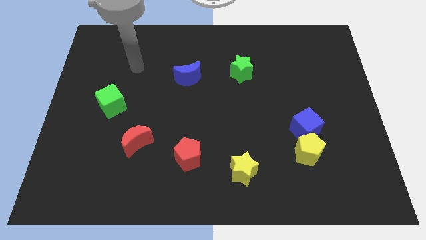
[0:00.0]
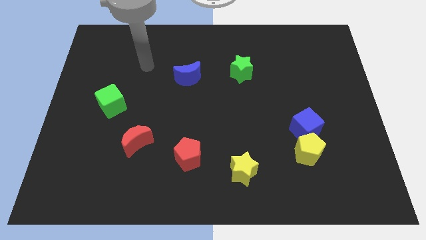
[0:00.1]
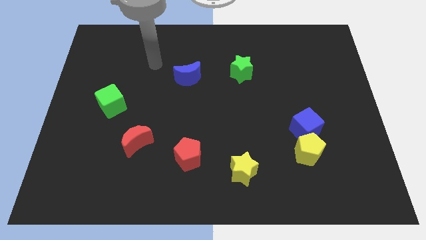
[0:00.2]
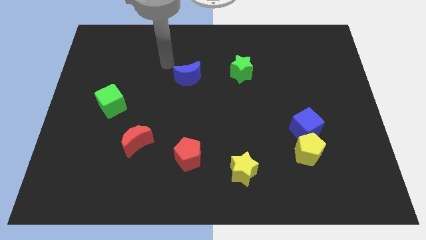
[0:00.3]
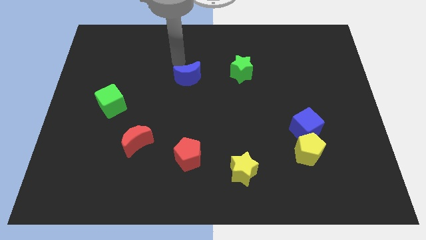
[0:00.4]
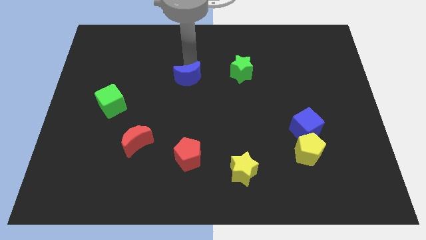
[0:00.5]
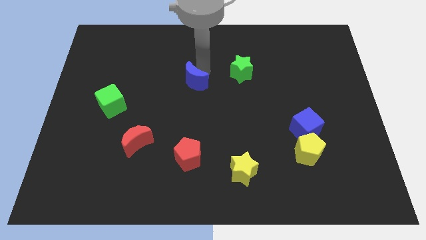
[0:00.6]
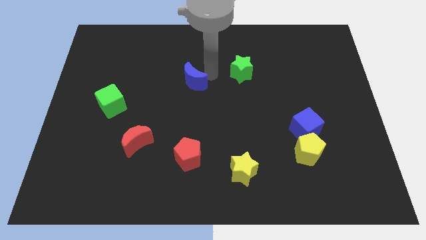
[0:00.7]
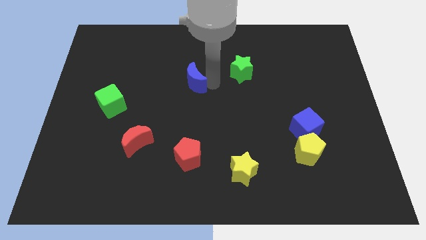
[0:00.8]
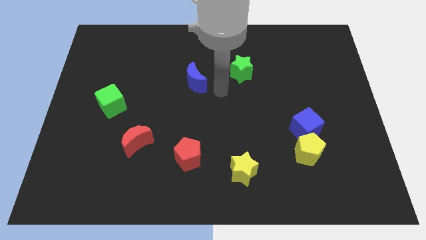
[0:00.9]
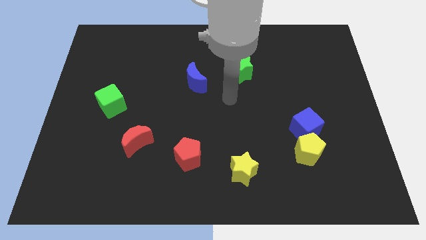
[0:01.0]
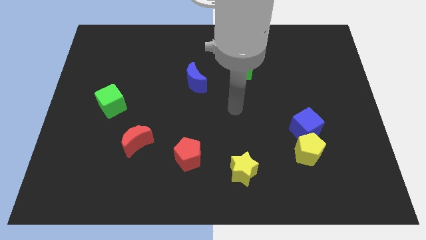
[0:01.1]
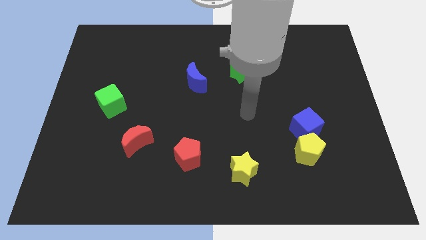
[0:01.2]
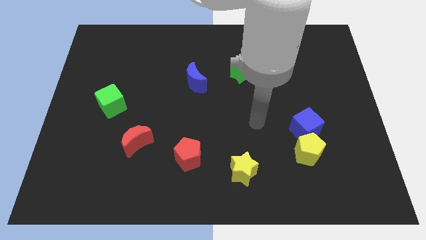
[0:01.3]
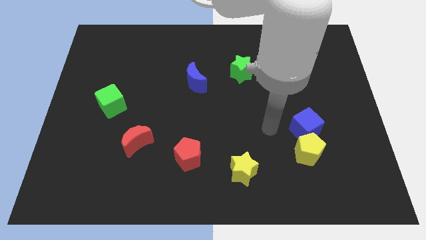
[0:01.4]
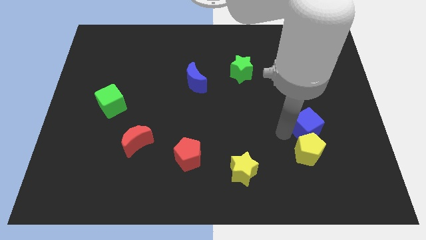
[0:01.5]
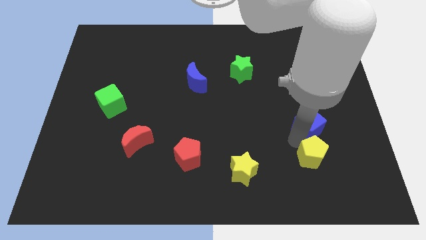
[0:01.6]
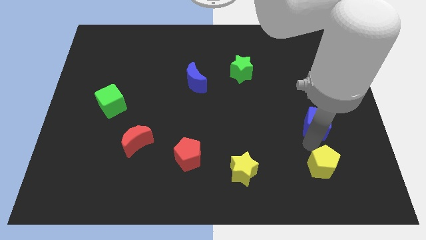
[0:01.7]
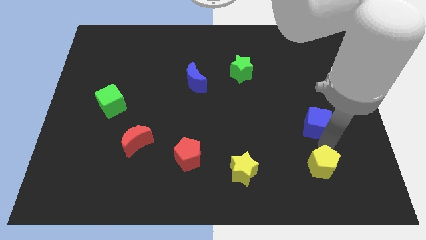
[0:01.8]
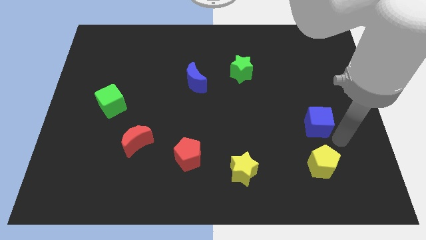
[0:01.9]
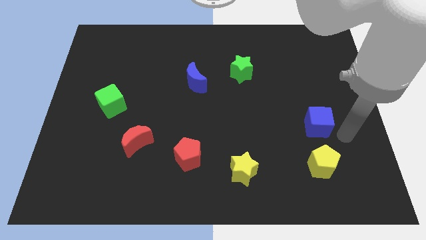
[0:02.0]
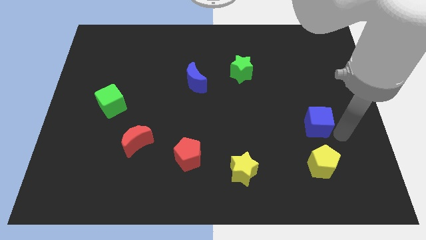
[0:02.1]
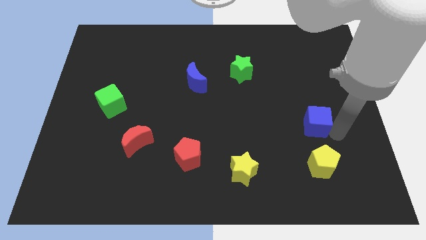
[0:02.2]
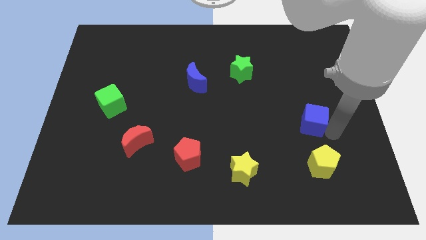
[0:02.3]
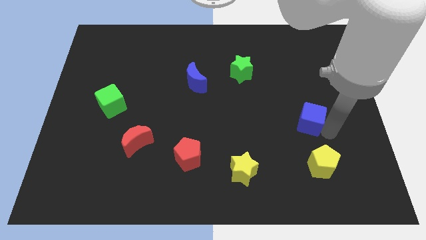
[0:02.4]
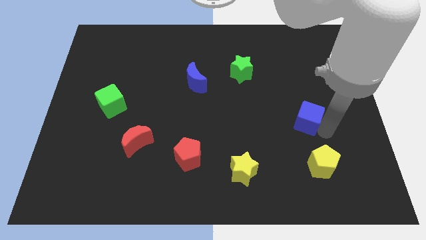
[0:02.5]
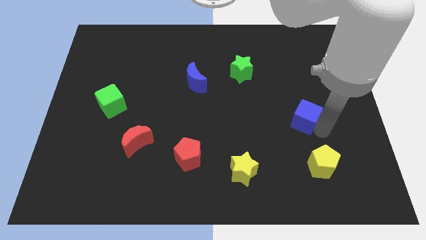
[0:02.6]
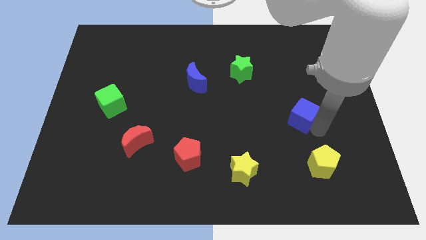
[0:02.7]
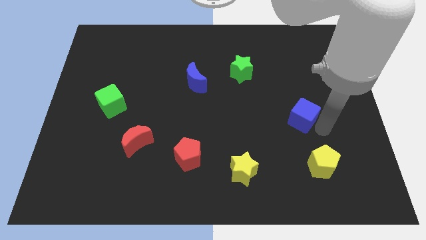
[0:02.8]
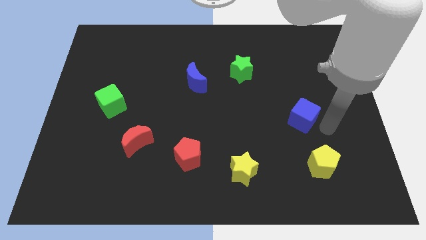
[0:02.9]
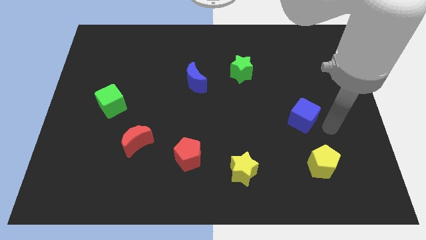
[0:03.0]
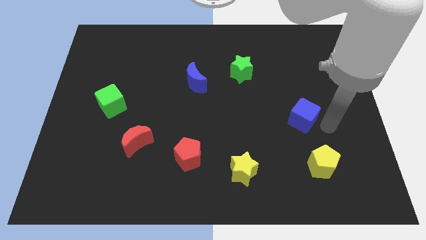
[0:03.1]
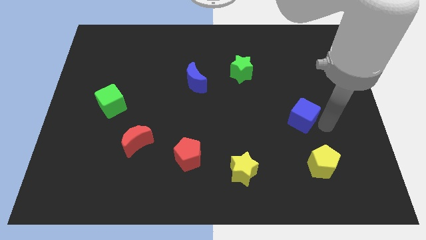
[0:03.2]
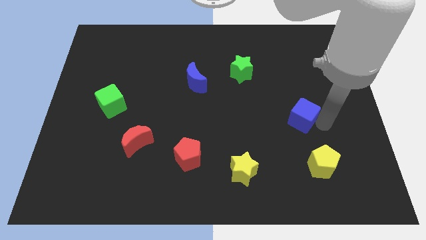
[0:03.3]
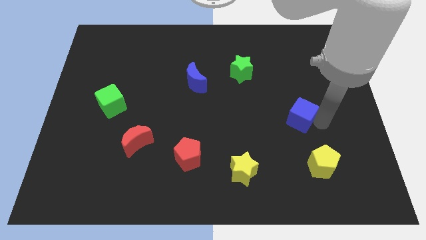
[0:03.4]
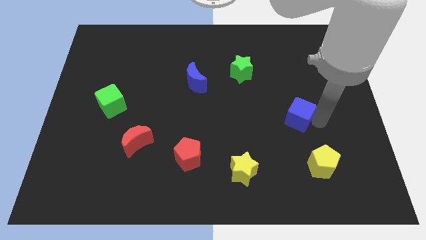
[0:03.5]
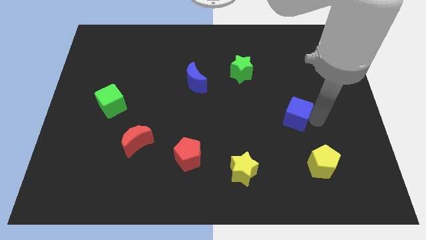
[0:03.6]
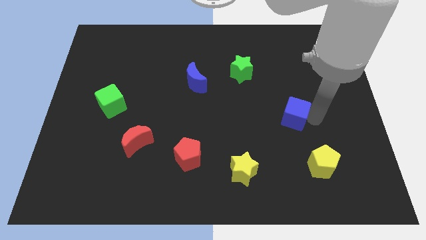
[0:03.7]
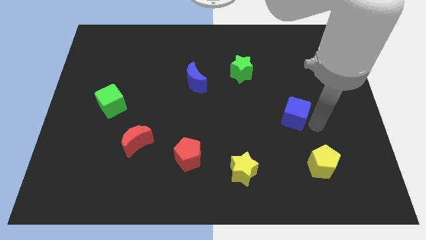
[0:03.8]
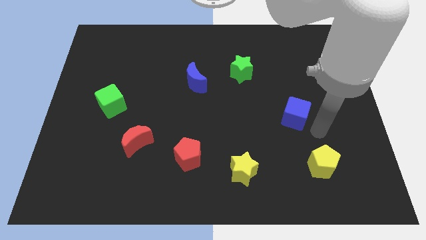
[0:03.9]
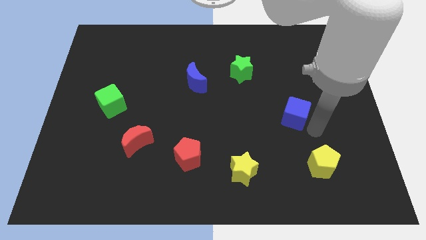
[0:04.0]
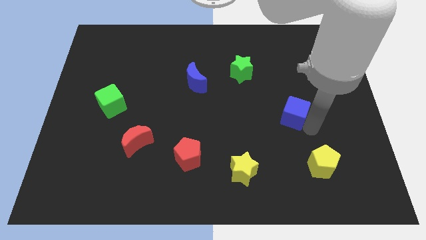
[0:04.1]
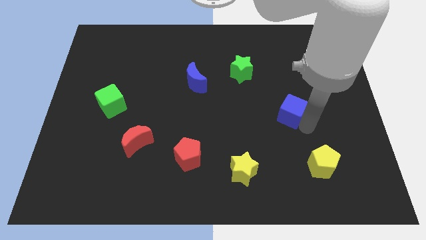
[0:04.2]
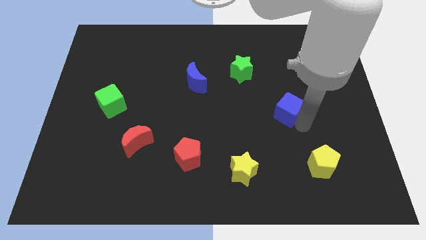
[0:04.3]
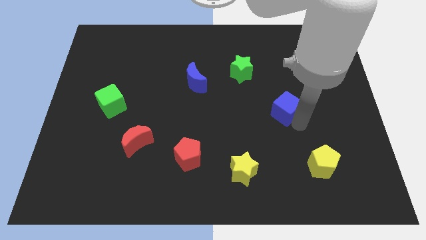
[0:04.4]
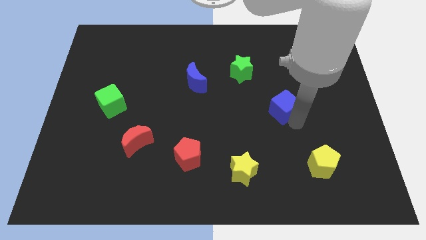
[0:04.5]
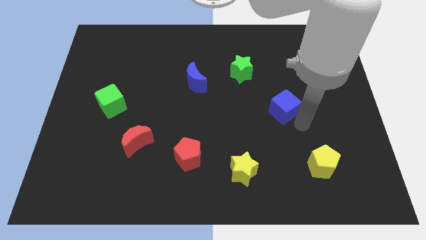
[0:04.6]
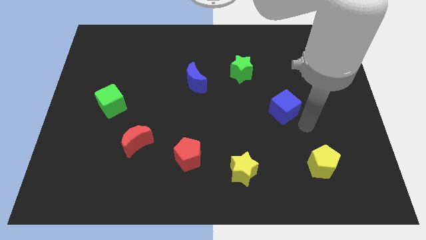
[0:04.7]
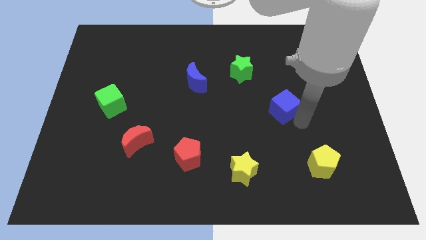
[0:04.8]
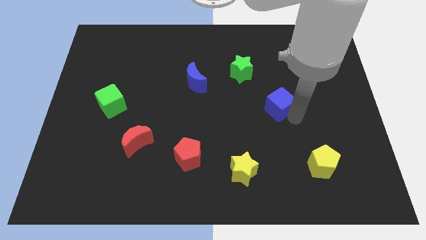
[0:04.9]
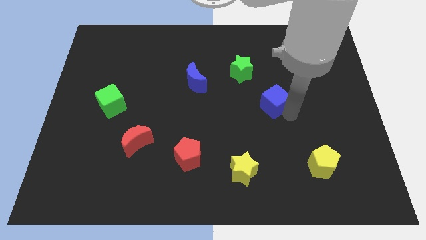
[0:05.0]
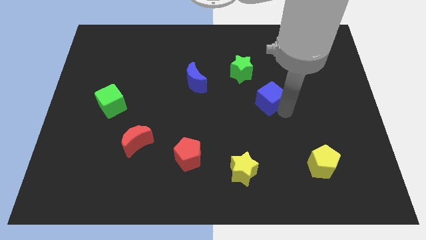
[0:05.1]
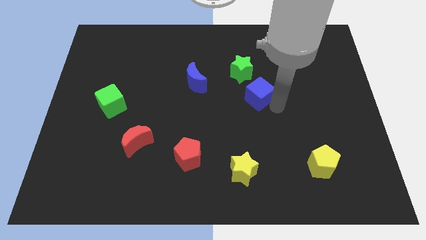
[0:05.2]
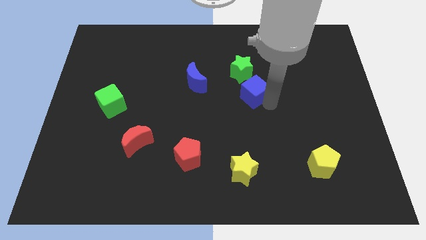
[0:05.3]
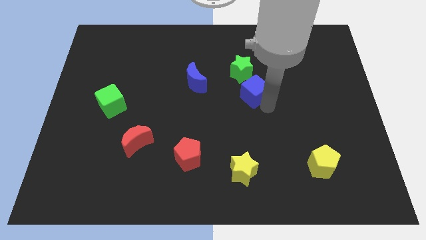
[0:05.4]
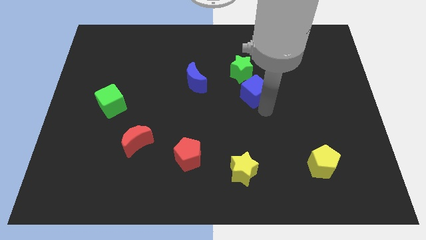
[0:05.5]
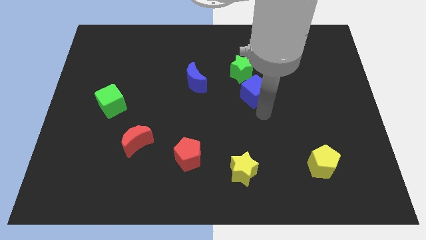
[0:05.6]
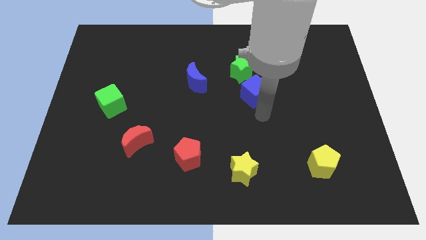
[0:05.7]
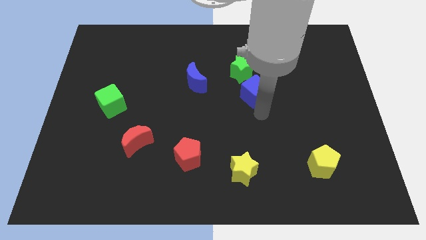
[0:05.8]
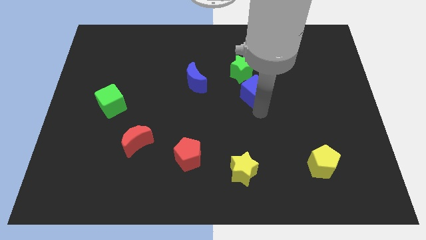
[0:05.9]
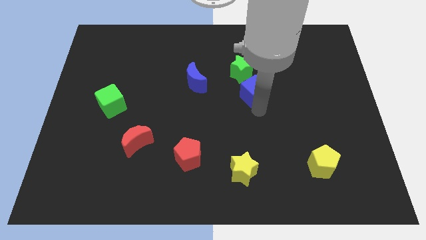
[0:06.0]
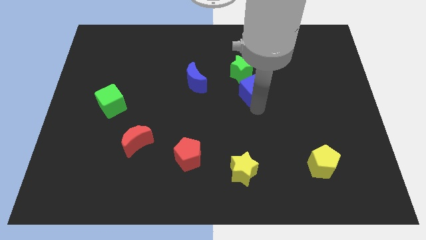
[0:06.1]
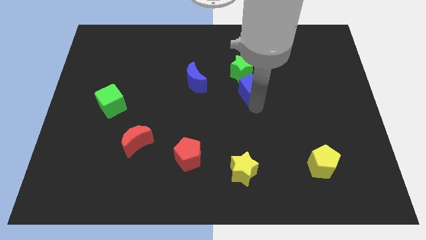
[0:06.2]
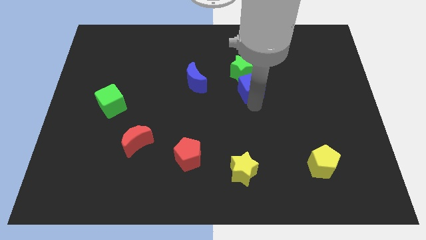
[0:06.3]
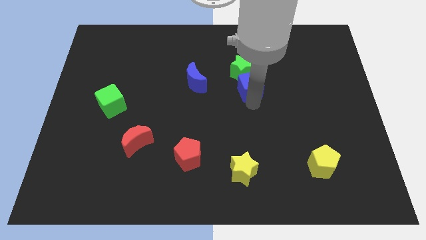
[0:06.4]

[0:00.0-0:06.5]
put the blue cube close to the green star

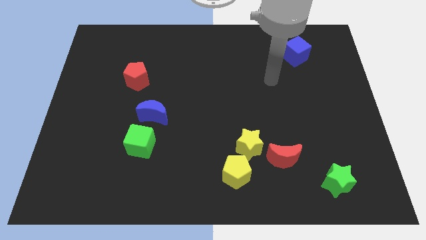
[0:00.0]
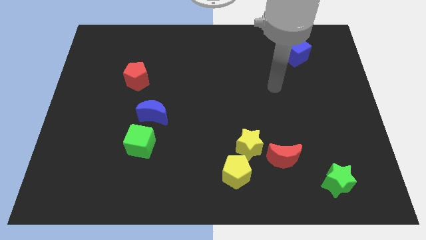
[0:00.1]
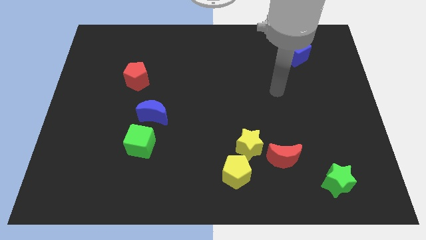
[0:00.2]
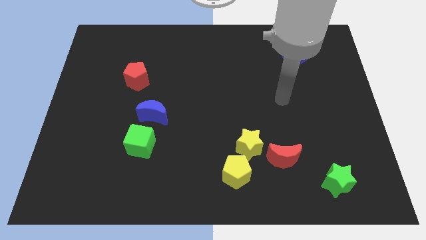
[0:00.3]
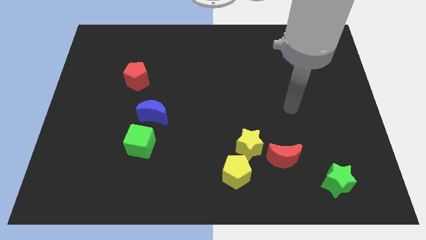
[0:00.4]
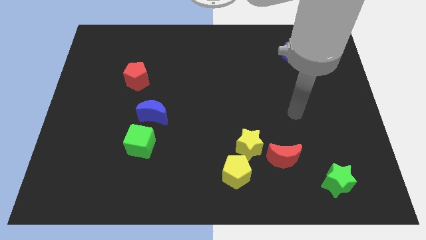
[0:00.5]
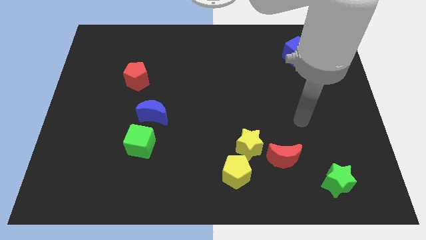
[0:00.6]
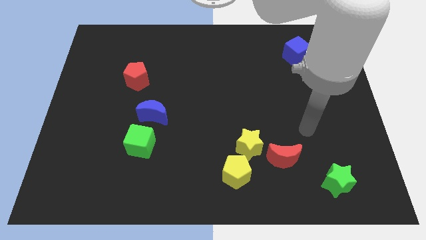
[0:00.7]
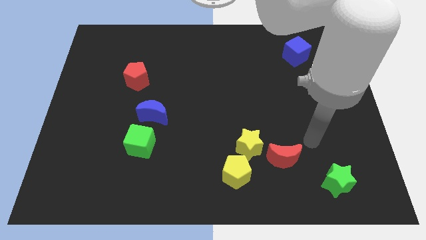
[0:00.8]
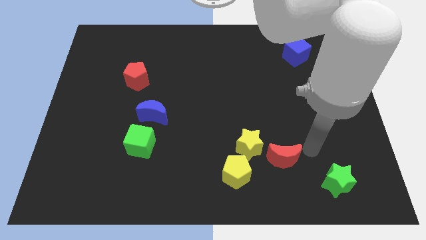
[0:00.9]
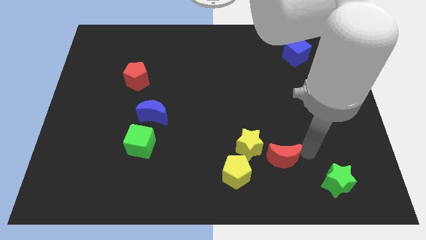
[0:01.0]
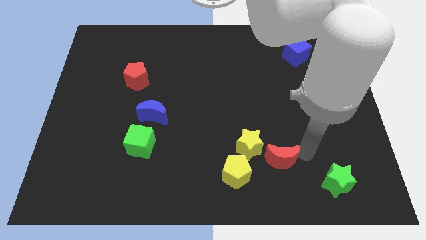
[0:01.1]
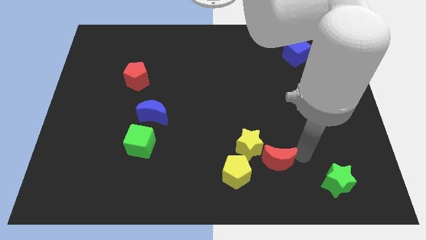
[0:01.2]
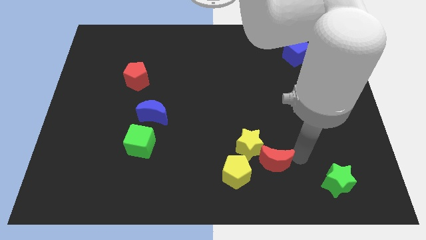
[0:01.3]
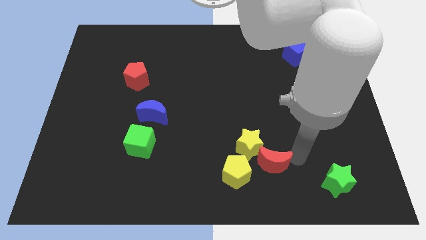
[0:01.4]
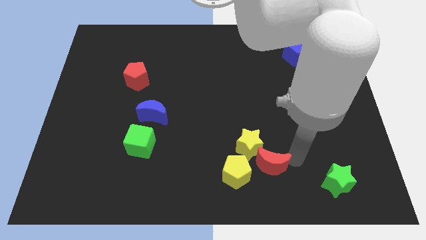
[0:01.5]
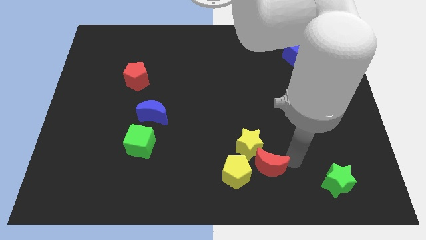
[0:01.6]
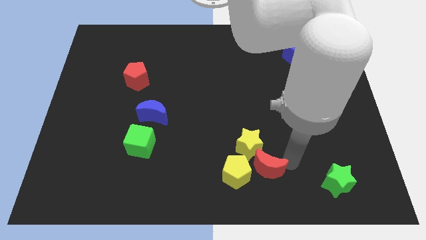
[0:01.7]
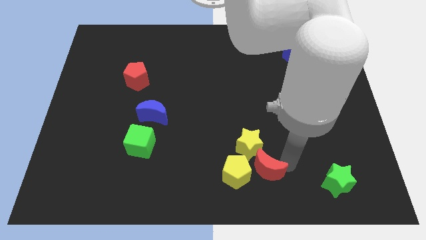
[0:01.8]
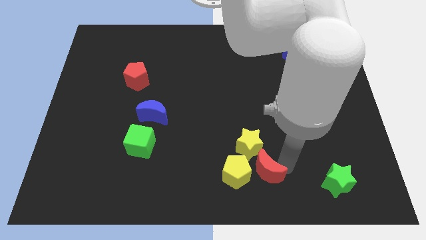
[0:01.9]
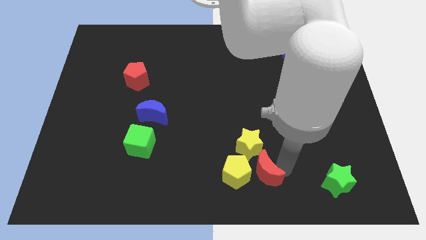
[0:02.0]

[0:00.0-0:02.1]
slide the red moon towards the yellow pentagon
